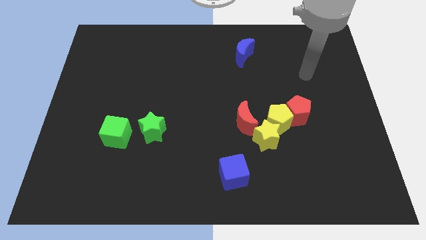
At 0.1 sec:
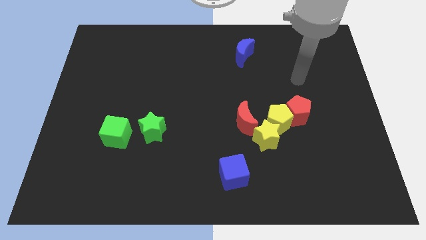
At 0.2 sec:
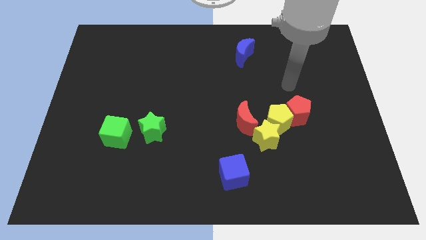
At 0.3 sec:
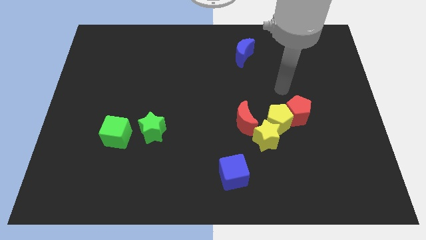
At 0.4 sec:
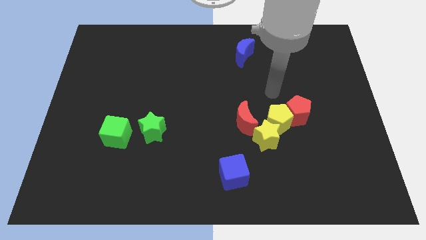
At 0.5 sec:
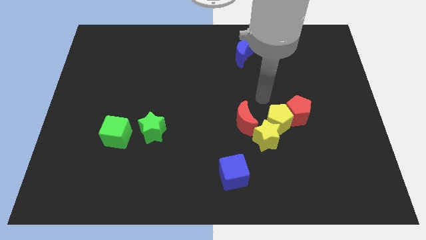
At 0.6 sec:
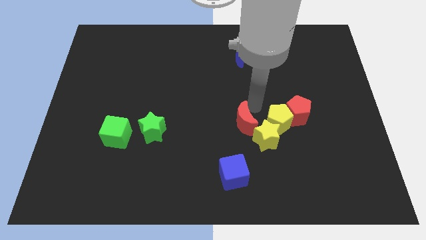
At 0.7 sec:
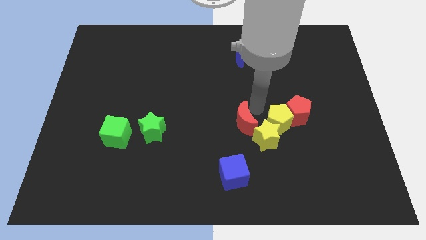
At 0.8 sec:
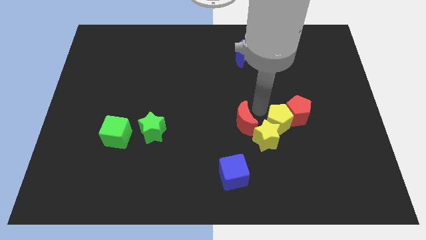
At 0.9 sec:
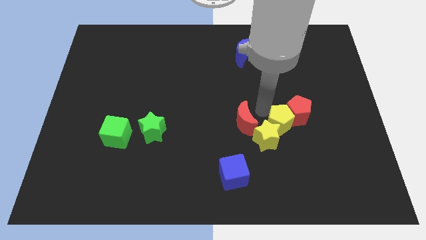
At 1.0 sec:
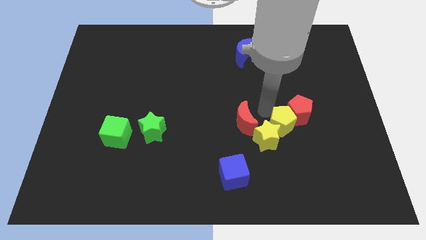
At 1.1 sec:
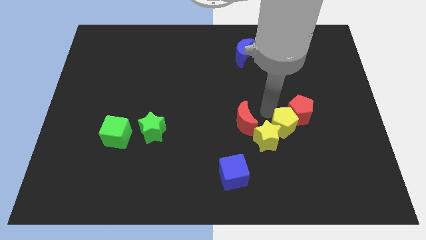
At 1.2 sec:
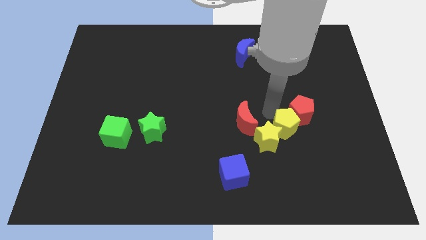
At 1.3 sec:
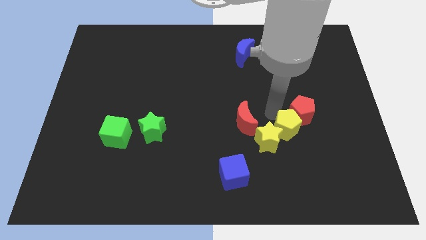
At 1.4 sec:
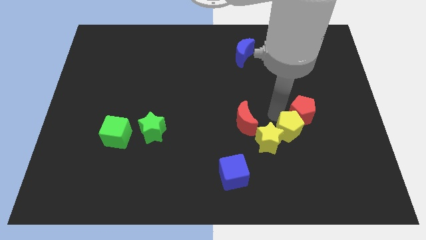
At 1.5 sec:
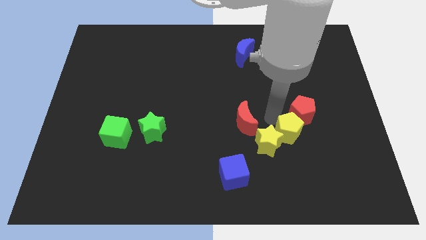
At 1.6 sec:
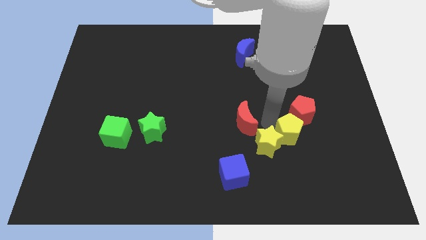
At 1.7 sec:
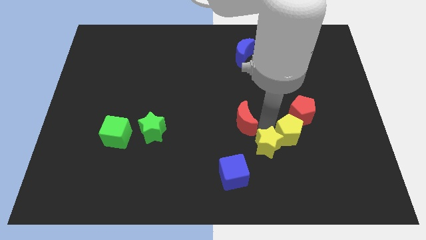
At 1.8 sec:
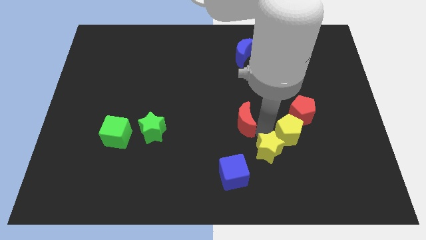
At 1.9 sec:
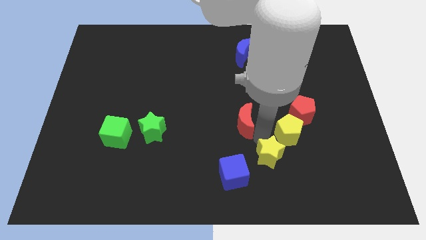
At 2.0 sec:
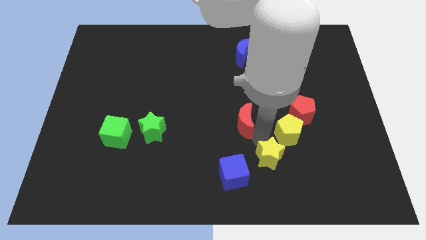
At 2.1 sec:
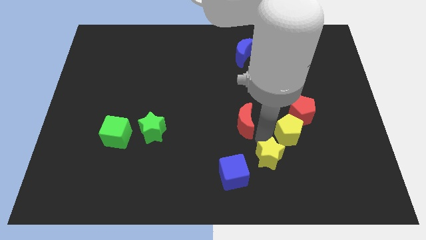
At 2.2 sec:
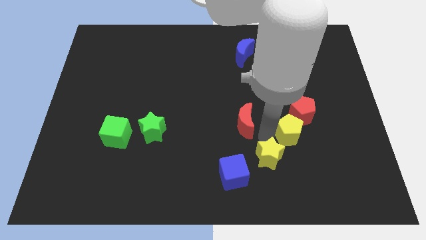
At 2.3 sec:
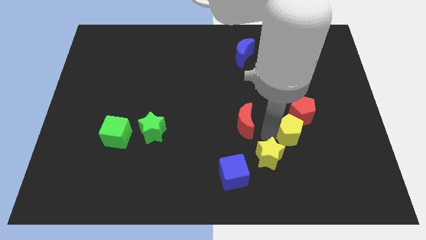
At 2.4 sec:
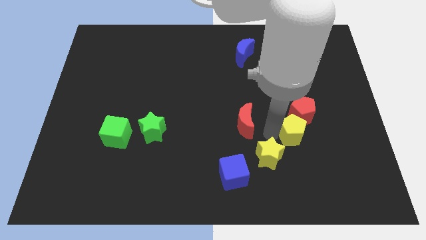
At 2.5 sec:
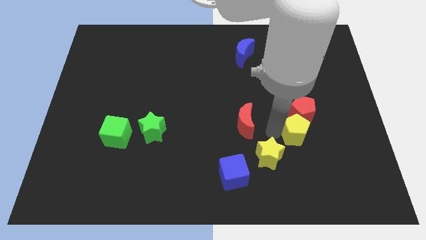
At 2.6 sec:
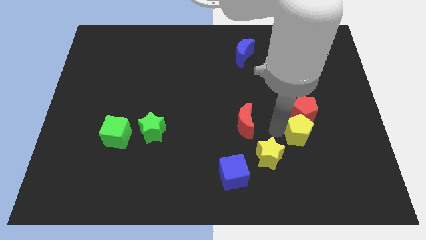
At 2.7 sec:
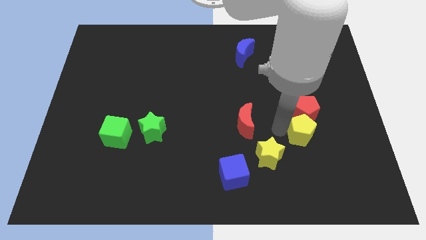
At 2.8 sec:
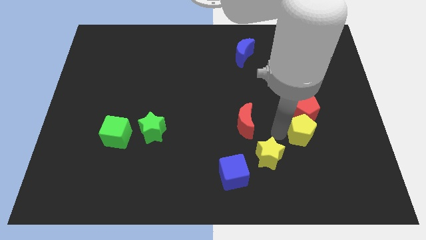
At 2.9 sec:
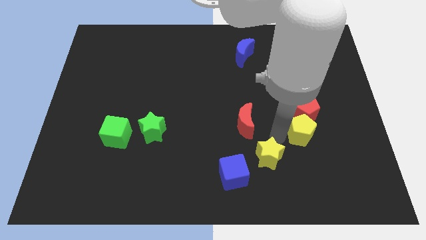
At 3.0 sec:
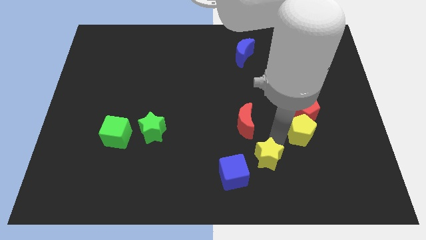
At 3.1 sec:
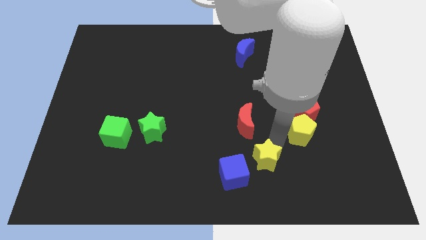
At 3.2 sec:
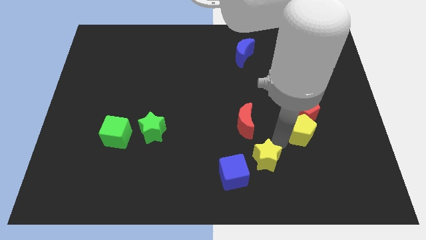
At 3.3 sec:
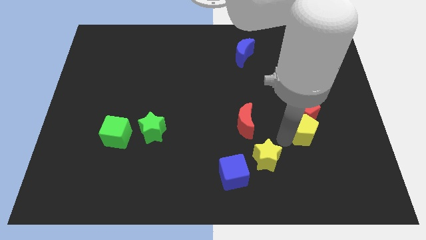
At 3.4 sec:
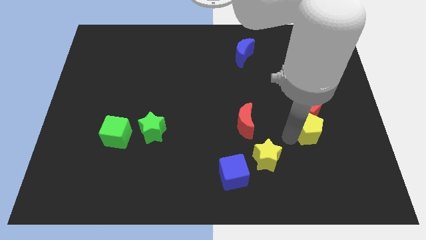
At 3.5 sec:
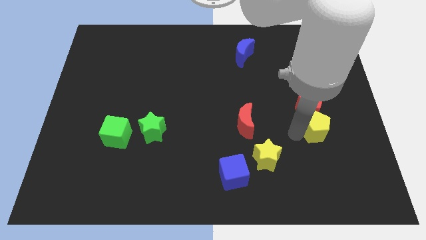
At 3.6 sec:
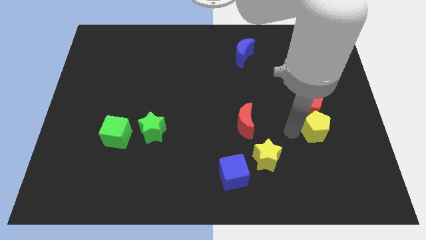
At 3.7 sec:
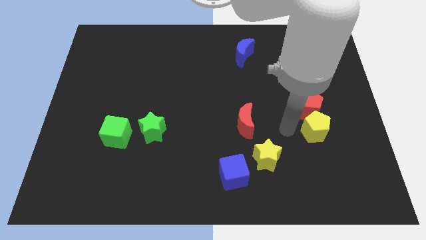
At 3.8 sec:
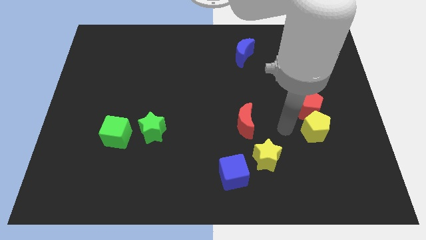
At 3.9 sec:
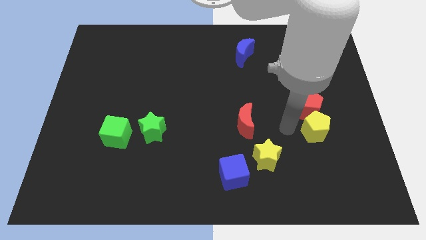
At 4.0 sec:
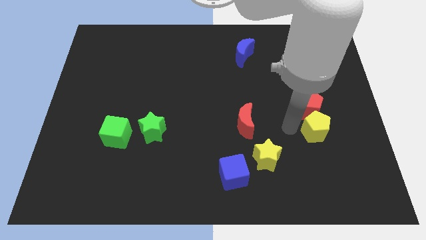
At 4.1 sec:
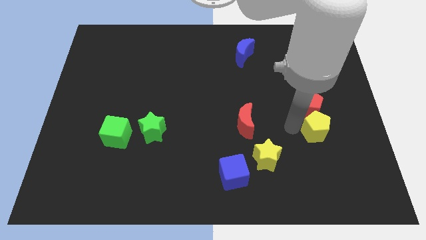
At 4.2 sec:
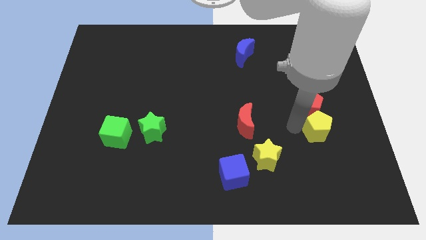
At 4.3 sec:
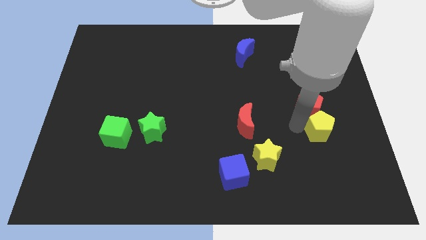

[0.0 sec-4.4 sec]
pull the yellow pentagon apart from the red pentagon, yellow star, and red moon

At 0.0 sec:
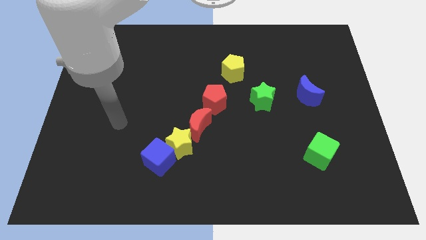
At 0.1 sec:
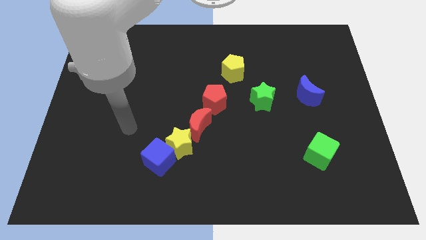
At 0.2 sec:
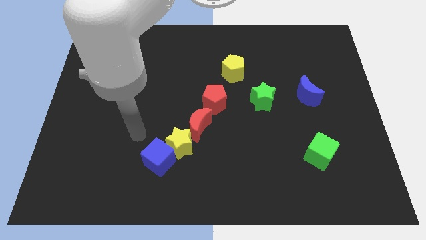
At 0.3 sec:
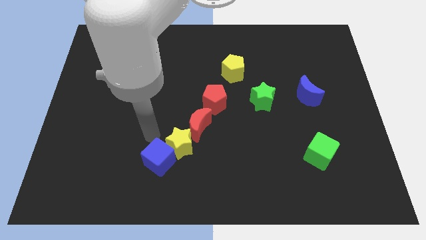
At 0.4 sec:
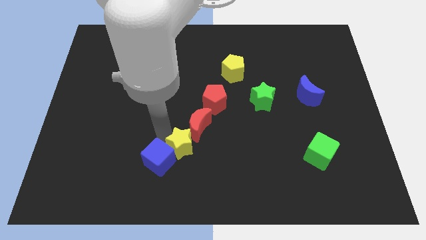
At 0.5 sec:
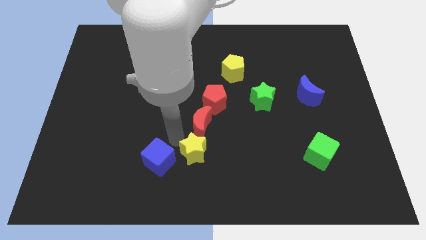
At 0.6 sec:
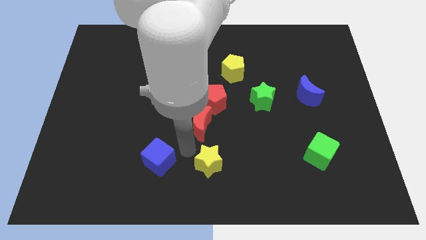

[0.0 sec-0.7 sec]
move the blue cube away from the yellow star

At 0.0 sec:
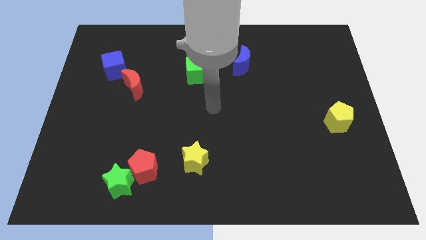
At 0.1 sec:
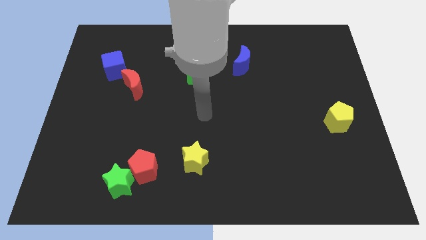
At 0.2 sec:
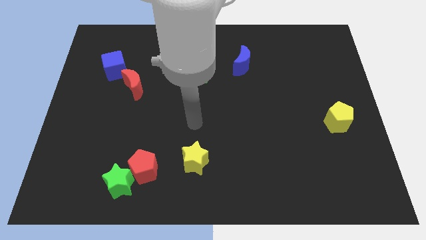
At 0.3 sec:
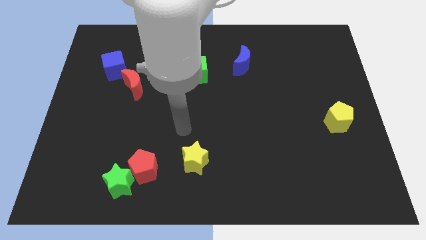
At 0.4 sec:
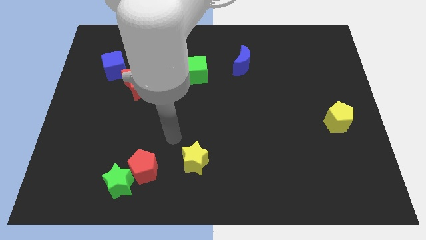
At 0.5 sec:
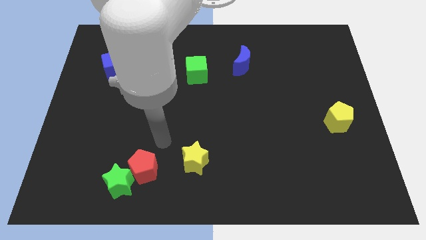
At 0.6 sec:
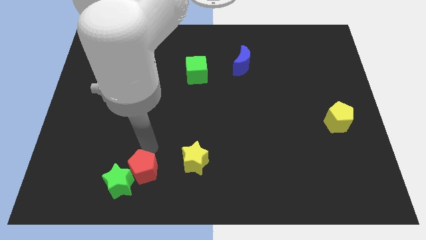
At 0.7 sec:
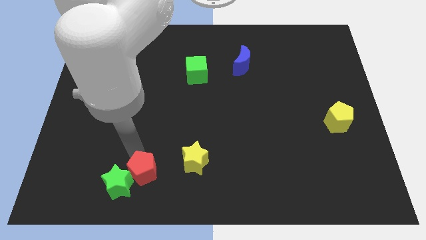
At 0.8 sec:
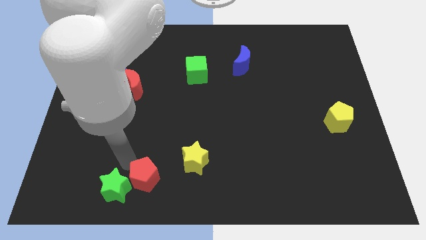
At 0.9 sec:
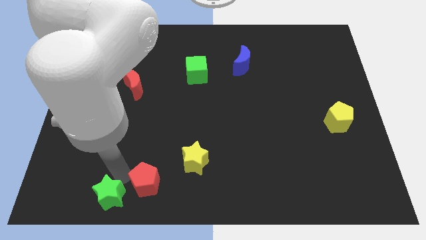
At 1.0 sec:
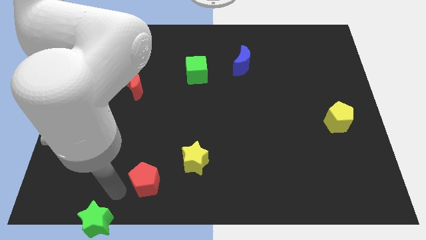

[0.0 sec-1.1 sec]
separate the red pentagon from the green star

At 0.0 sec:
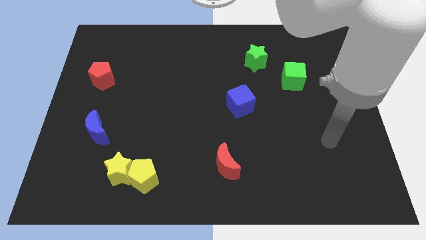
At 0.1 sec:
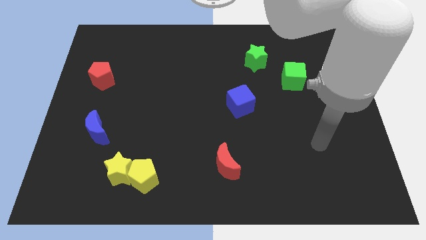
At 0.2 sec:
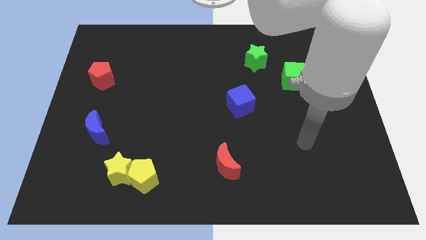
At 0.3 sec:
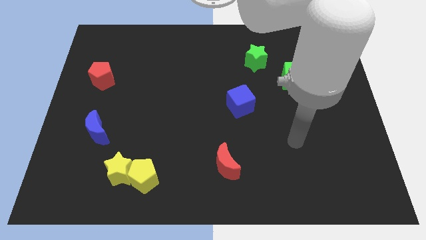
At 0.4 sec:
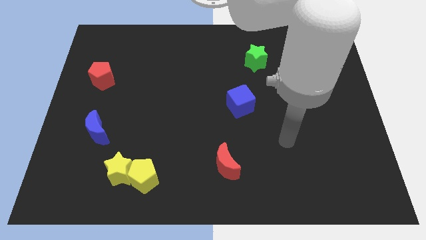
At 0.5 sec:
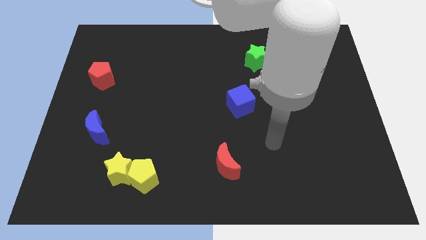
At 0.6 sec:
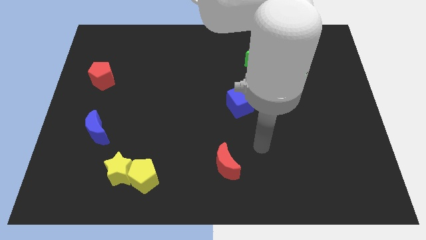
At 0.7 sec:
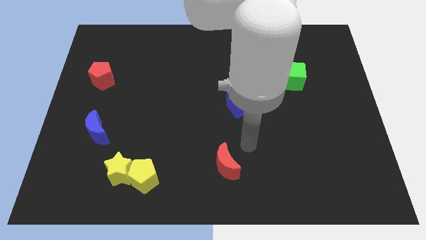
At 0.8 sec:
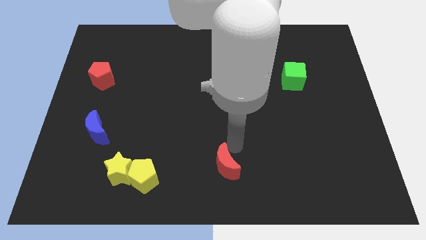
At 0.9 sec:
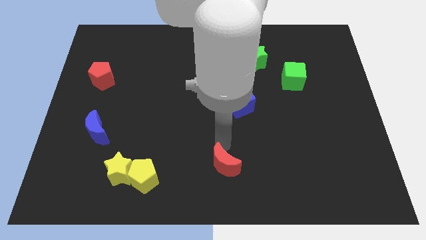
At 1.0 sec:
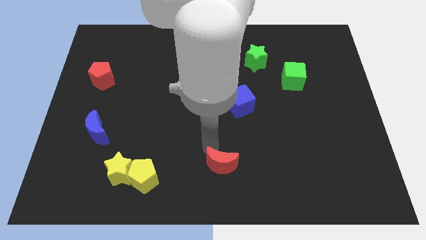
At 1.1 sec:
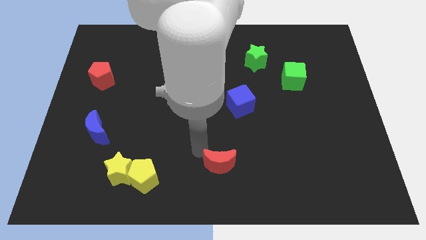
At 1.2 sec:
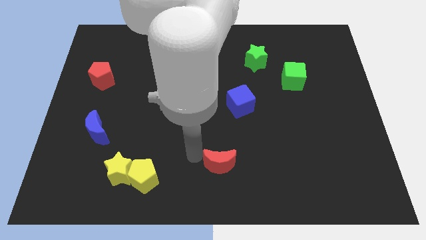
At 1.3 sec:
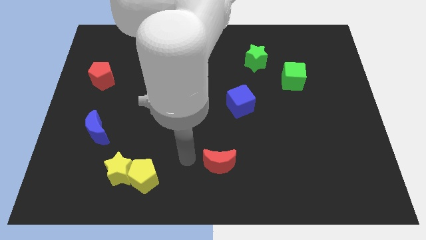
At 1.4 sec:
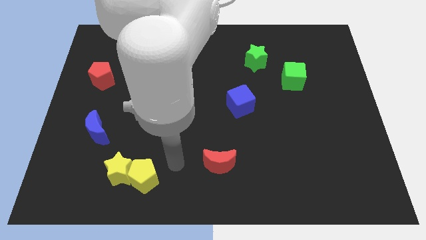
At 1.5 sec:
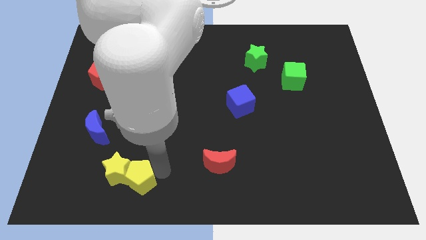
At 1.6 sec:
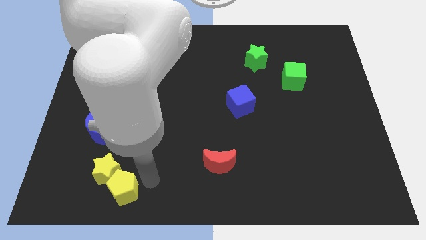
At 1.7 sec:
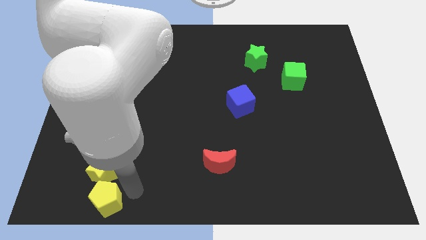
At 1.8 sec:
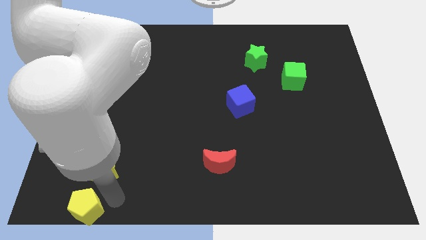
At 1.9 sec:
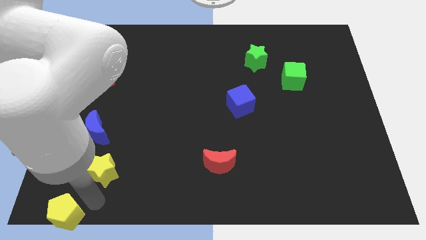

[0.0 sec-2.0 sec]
separate the yellow star from the yellow pentagon

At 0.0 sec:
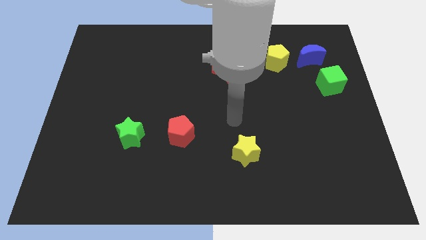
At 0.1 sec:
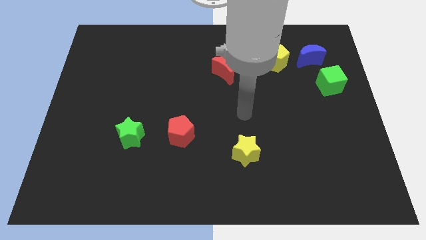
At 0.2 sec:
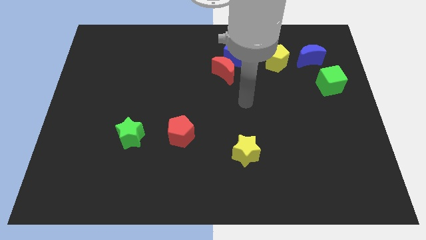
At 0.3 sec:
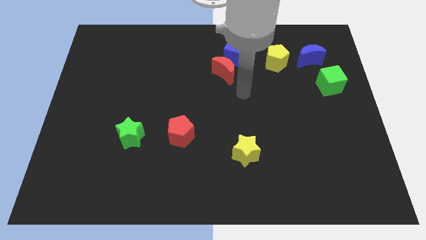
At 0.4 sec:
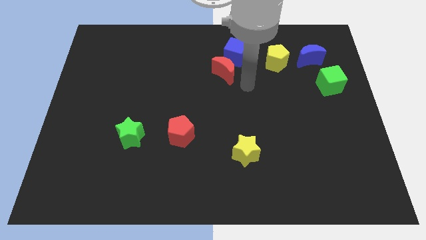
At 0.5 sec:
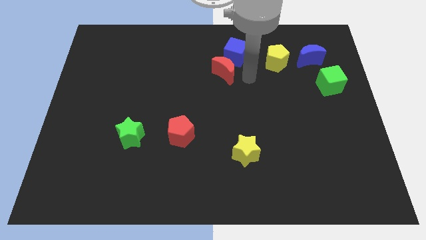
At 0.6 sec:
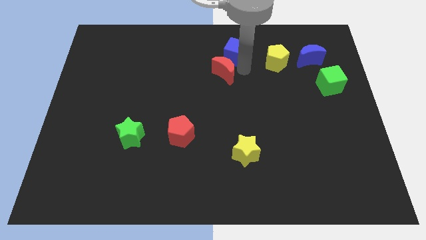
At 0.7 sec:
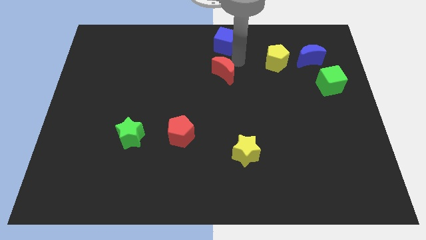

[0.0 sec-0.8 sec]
pull the red moon apart from the blue cube

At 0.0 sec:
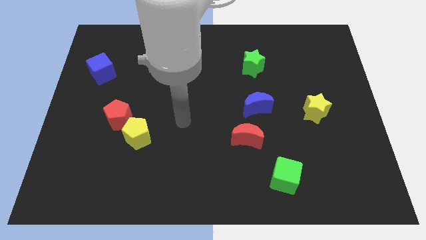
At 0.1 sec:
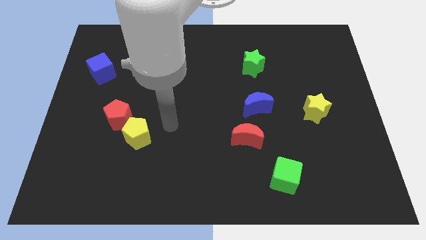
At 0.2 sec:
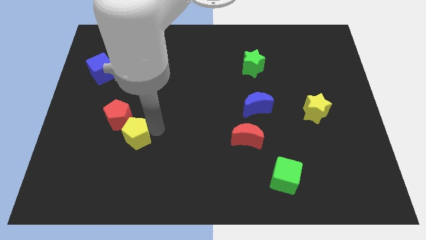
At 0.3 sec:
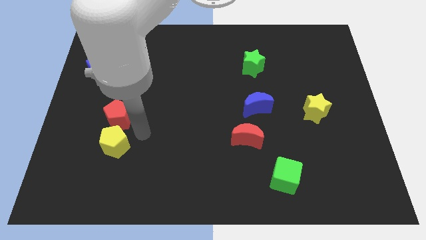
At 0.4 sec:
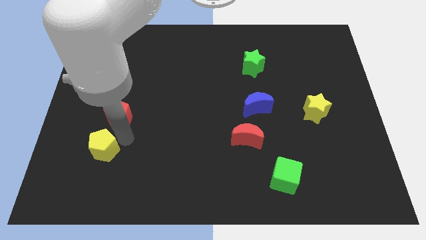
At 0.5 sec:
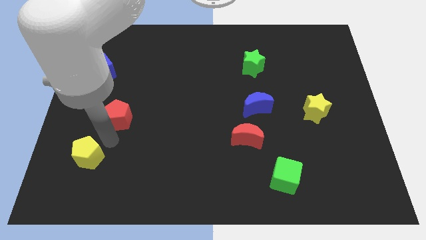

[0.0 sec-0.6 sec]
move the red pentagon away from the yellow pentagon
